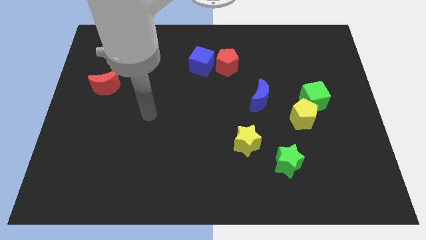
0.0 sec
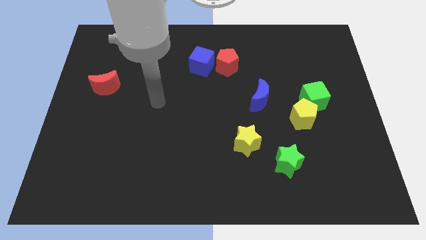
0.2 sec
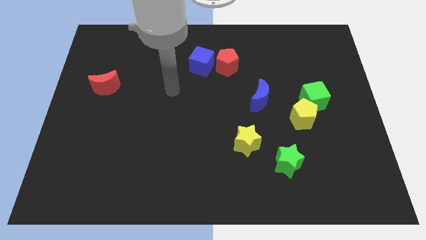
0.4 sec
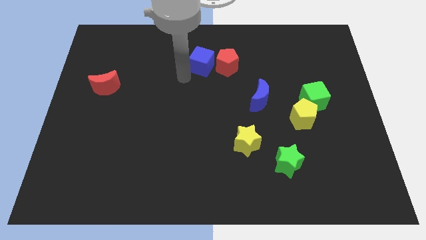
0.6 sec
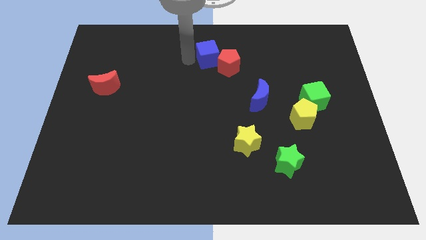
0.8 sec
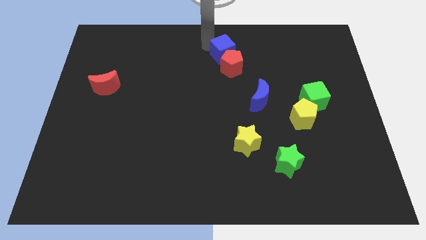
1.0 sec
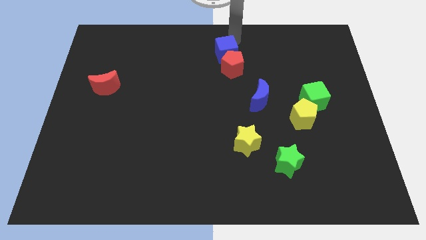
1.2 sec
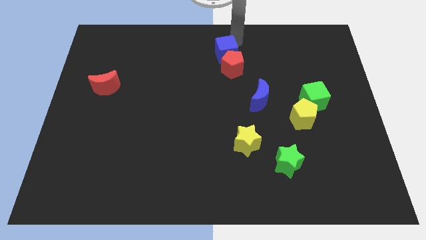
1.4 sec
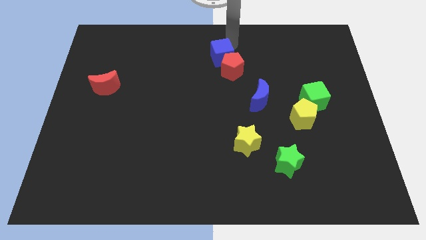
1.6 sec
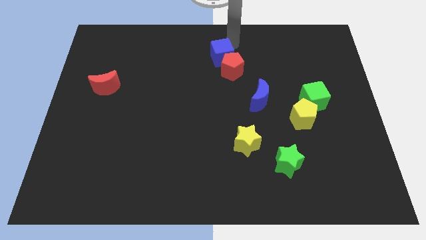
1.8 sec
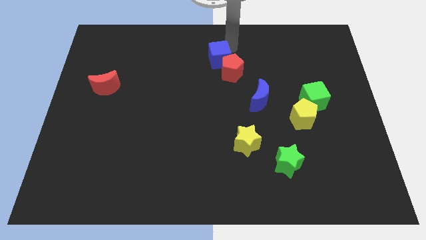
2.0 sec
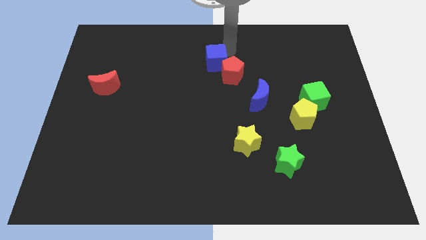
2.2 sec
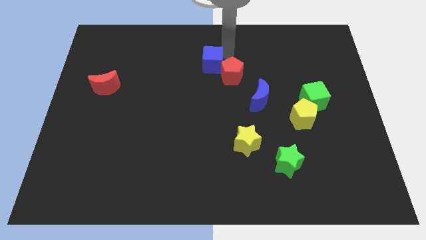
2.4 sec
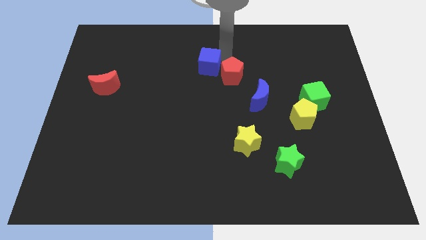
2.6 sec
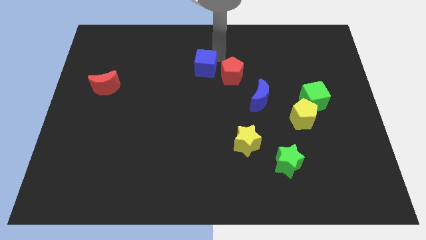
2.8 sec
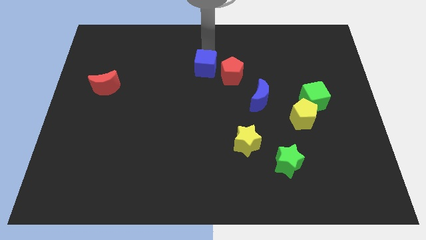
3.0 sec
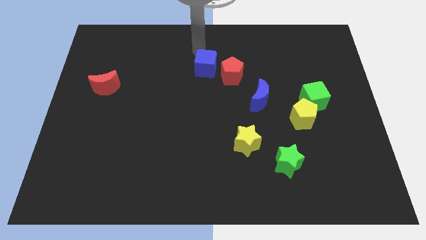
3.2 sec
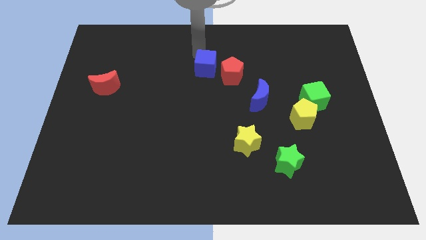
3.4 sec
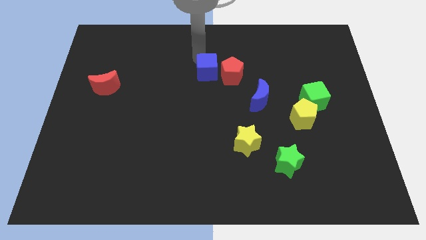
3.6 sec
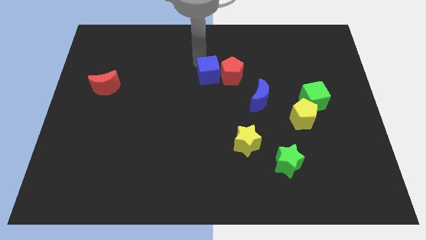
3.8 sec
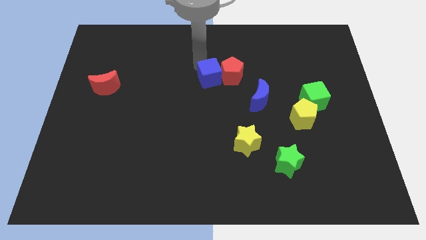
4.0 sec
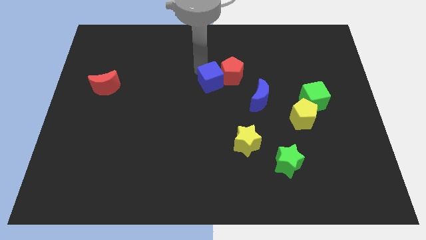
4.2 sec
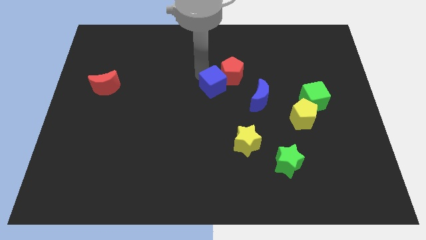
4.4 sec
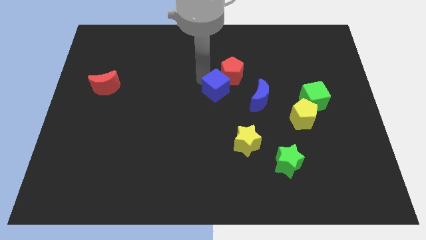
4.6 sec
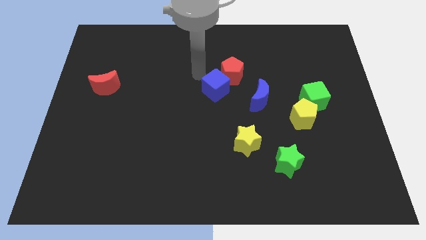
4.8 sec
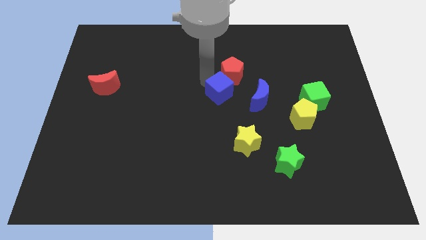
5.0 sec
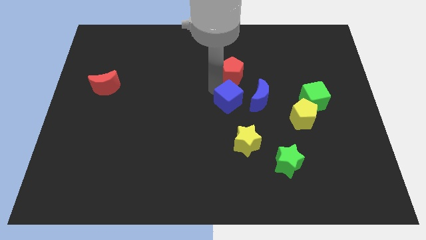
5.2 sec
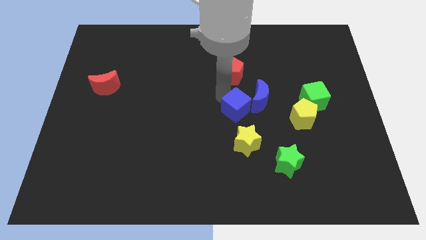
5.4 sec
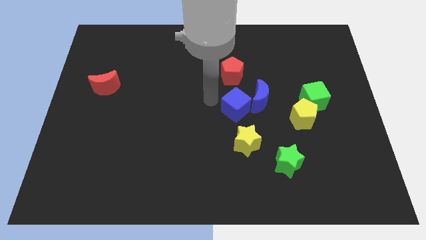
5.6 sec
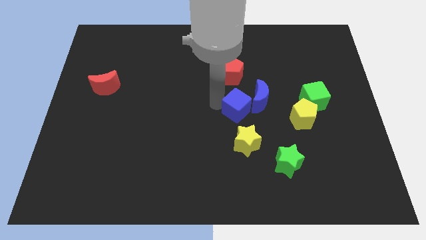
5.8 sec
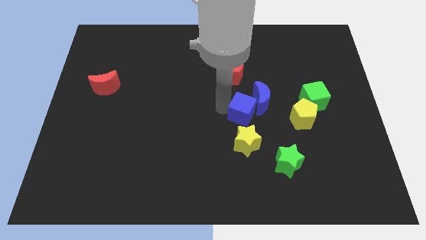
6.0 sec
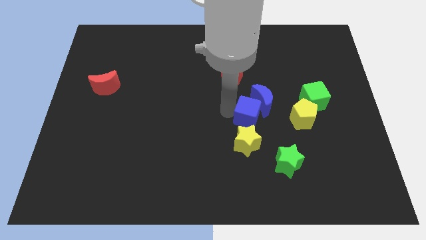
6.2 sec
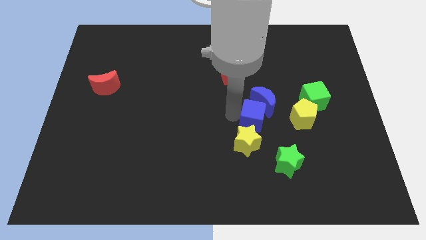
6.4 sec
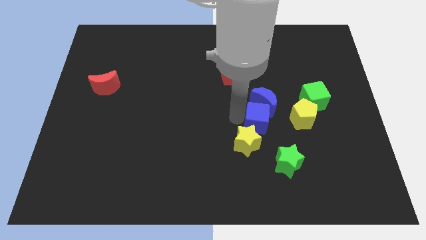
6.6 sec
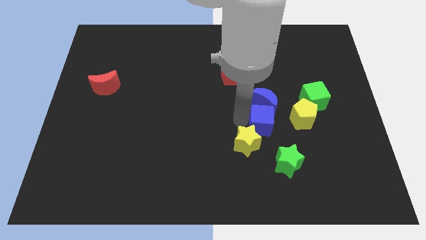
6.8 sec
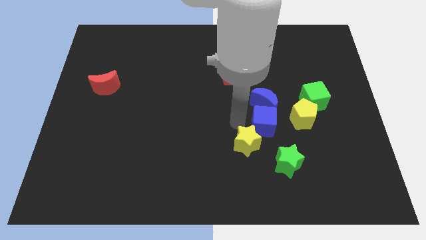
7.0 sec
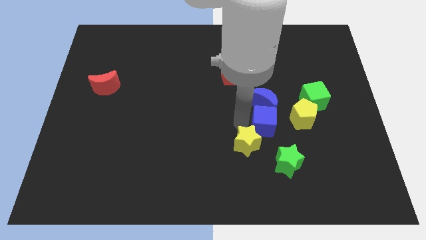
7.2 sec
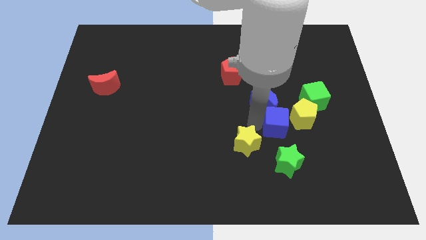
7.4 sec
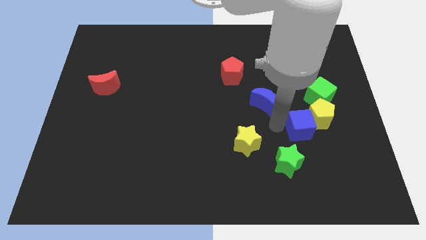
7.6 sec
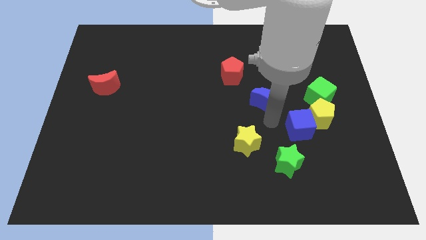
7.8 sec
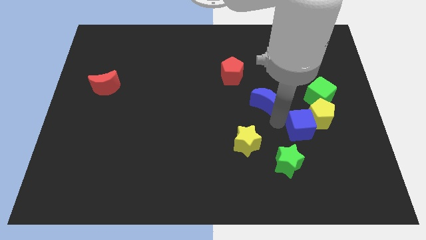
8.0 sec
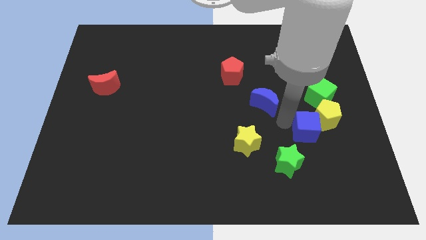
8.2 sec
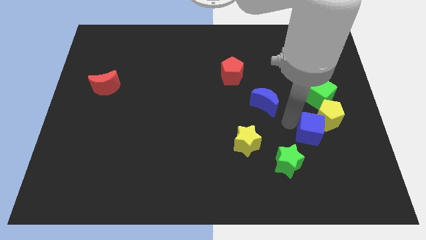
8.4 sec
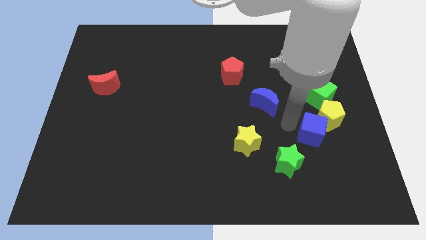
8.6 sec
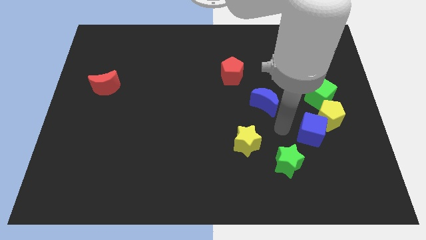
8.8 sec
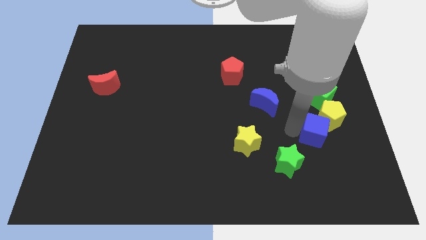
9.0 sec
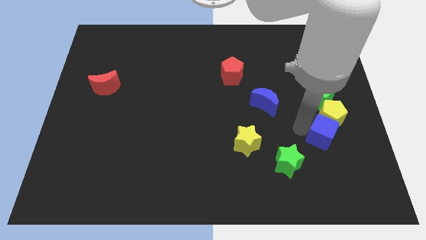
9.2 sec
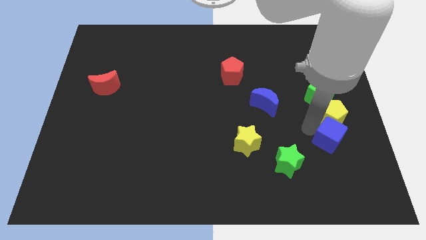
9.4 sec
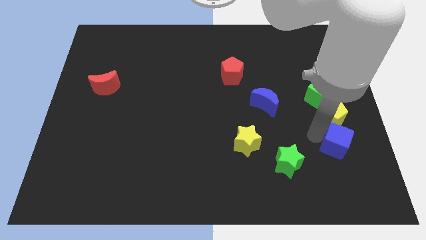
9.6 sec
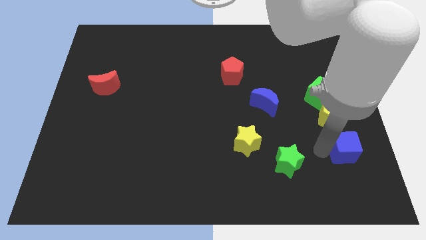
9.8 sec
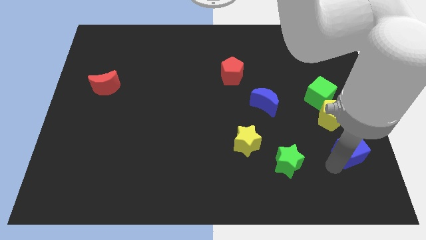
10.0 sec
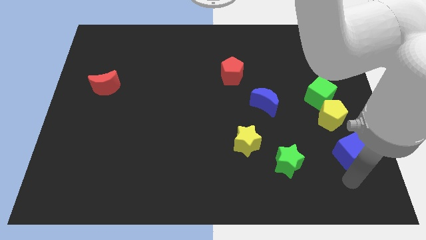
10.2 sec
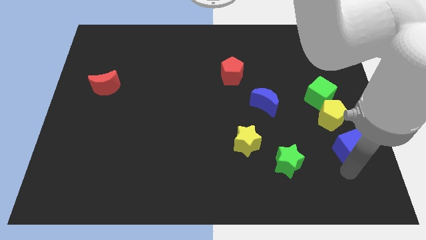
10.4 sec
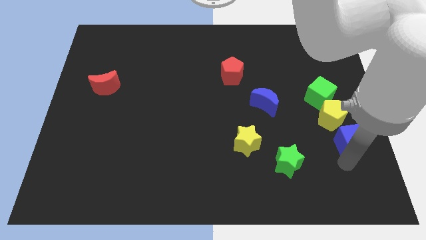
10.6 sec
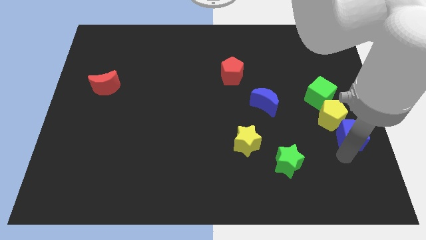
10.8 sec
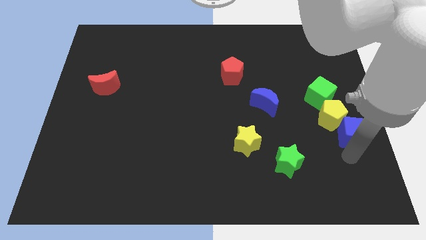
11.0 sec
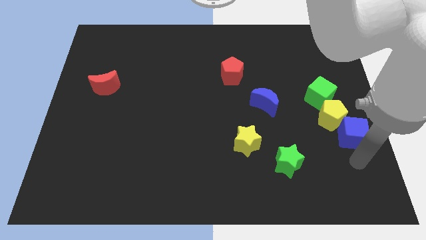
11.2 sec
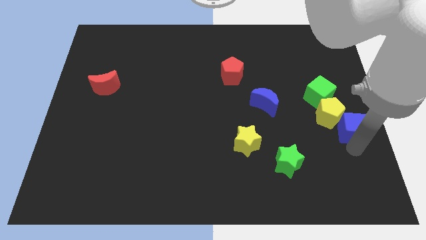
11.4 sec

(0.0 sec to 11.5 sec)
push the blue cube diagonally down and to the right of the green cube

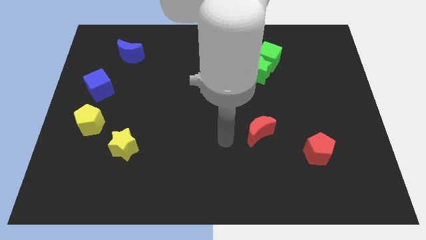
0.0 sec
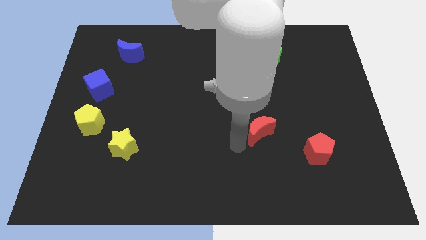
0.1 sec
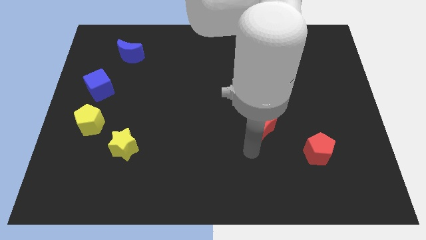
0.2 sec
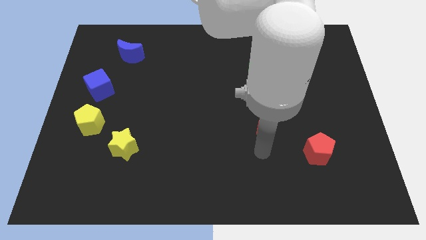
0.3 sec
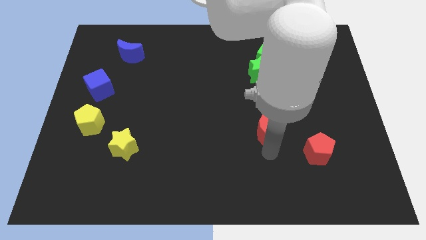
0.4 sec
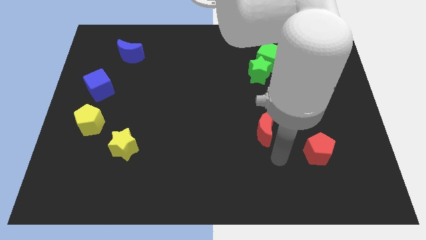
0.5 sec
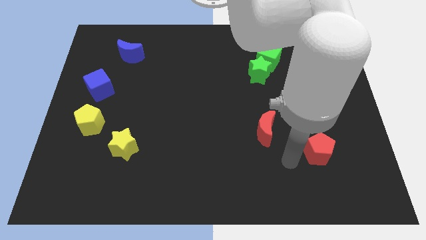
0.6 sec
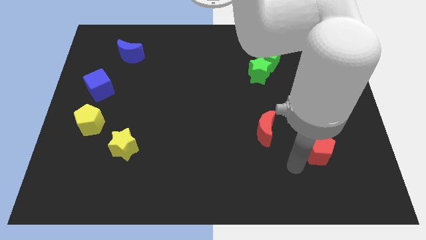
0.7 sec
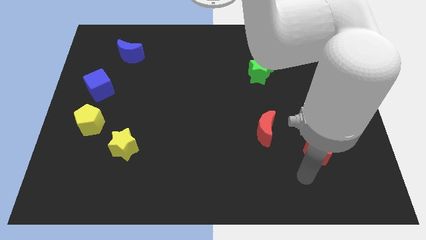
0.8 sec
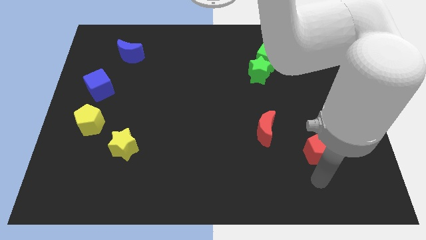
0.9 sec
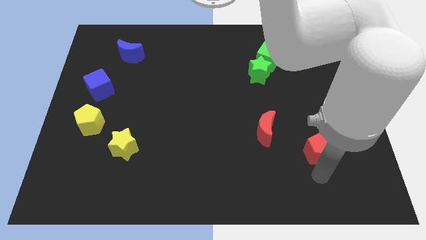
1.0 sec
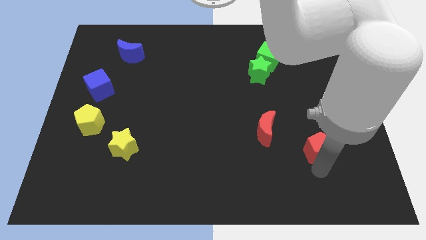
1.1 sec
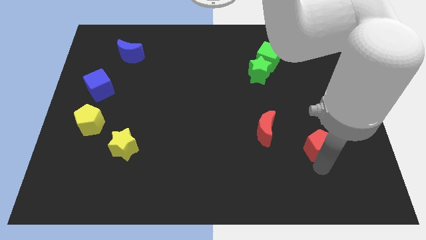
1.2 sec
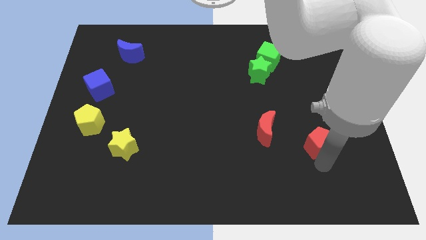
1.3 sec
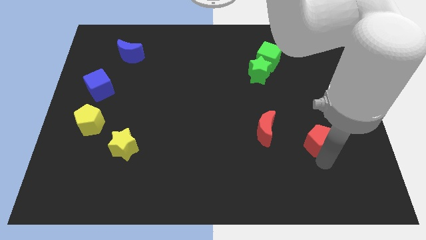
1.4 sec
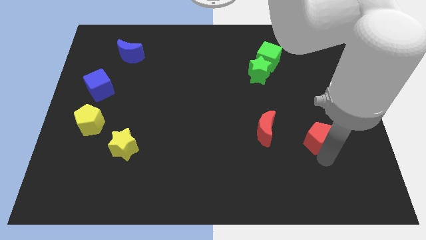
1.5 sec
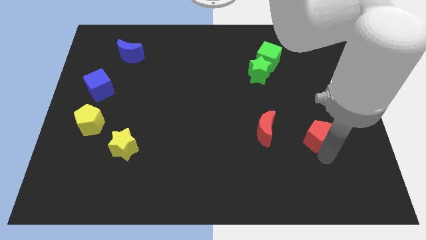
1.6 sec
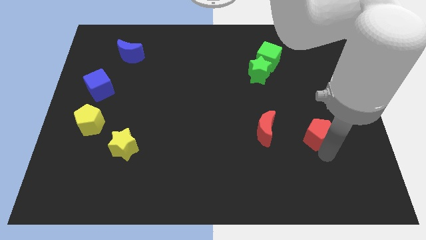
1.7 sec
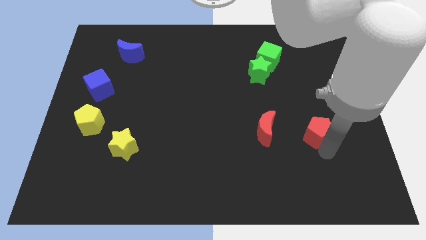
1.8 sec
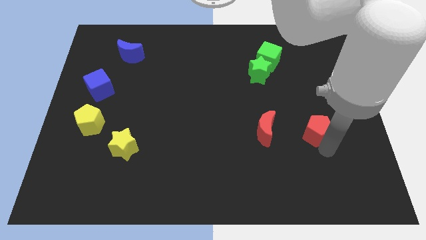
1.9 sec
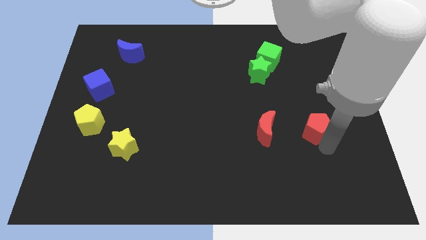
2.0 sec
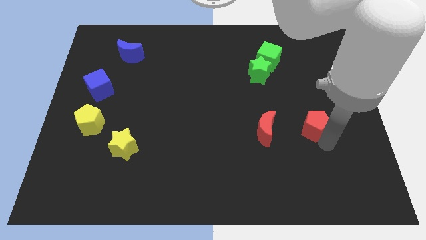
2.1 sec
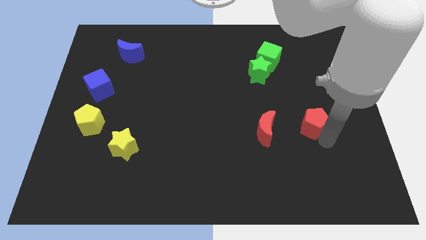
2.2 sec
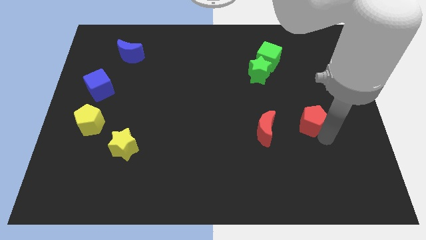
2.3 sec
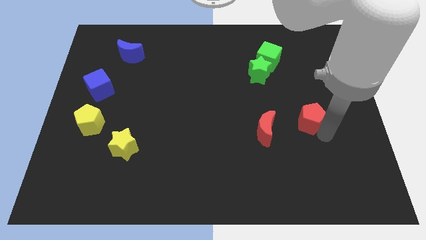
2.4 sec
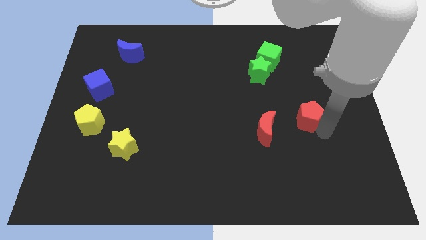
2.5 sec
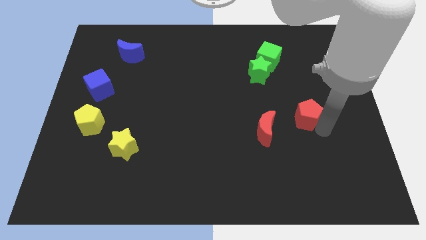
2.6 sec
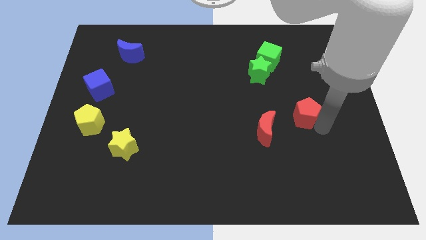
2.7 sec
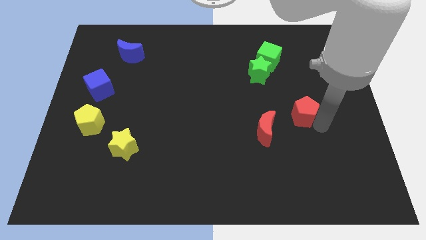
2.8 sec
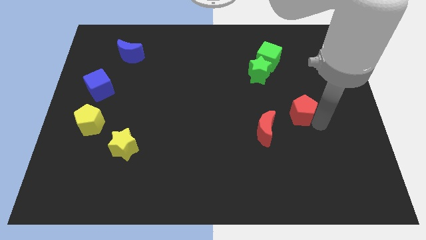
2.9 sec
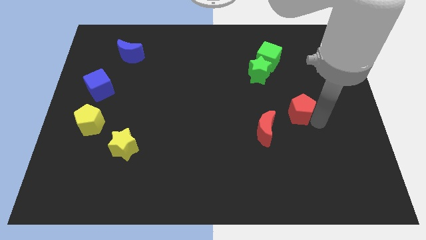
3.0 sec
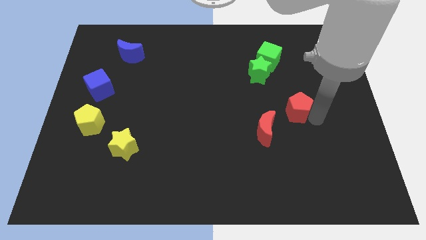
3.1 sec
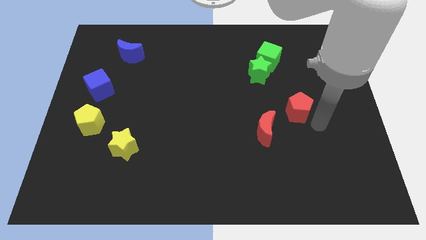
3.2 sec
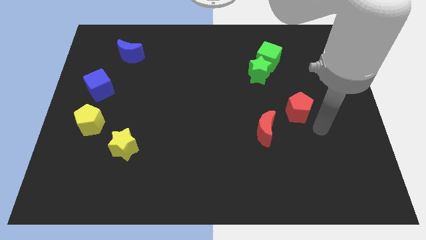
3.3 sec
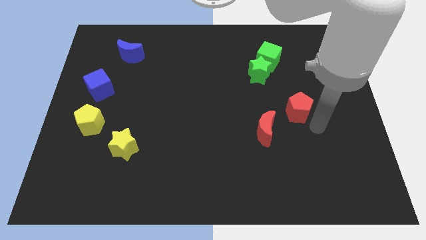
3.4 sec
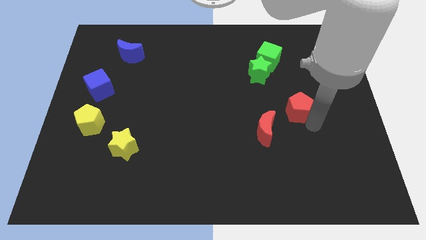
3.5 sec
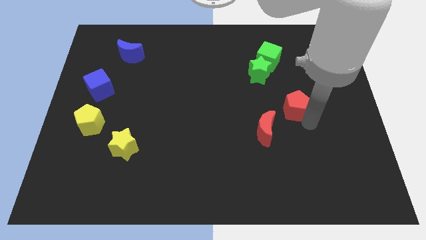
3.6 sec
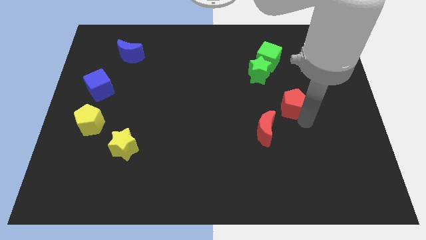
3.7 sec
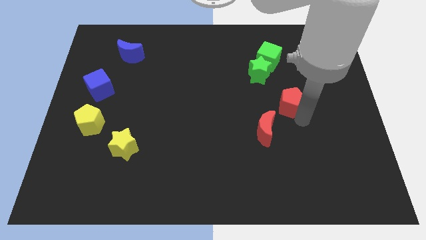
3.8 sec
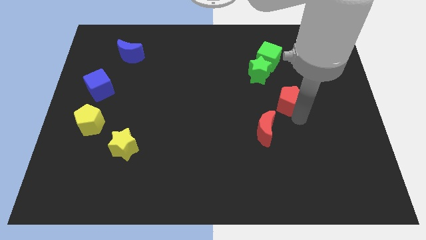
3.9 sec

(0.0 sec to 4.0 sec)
push the red pentagon to the bottom of the green cube
